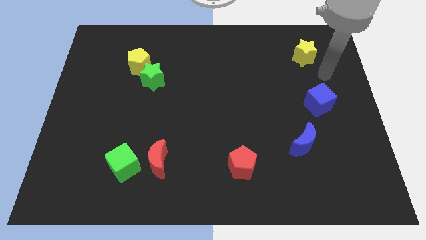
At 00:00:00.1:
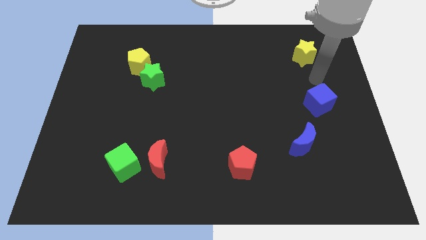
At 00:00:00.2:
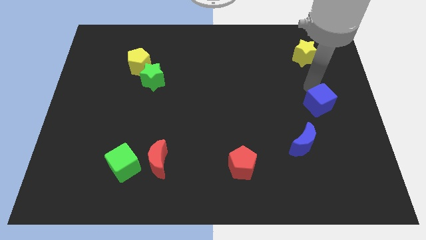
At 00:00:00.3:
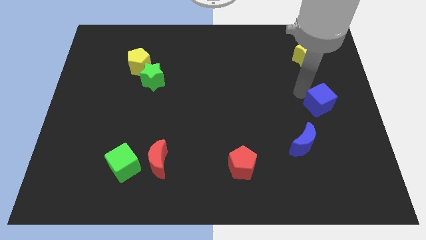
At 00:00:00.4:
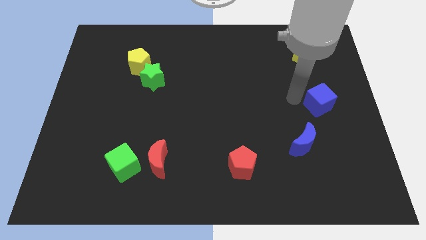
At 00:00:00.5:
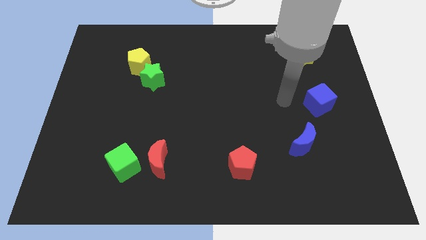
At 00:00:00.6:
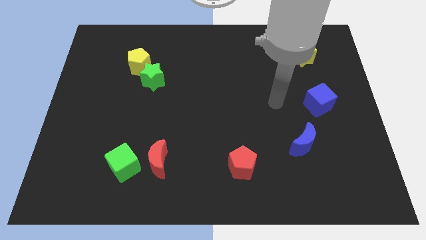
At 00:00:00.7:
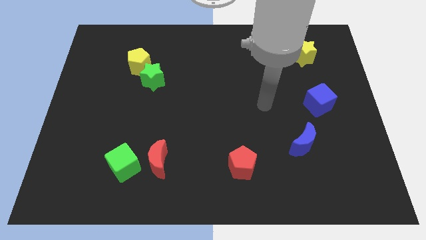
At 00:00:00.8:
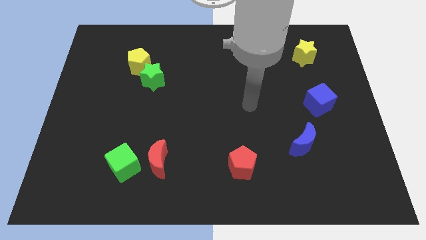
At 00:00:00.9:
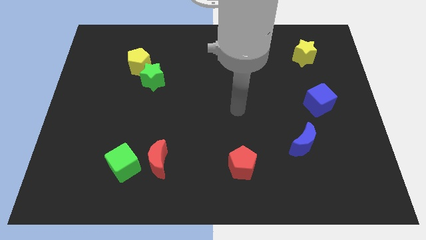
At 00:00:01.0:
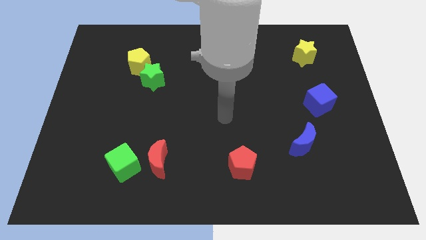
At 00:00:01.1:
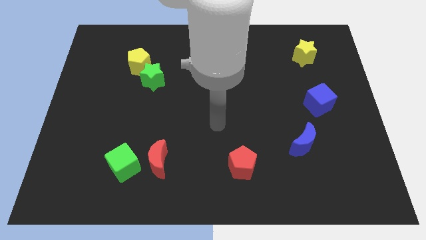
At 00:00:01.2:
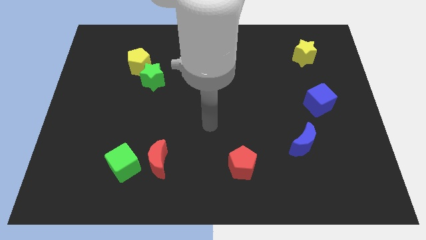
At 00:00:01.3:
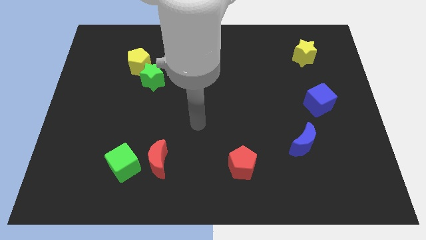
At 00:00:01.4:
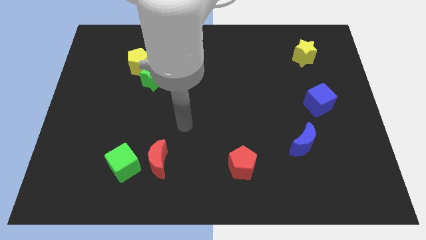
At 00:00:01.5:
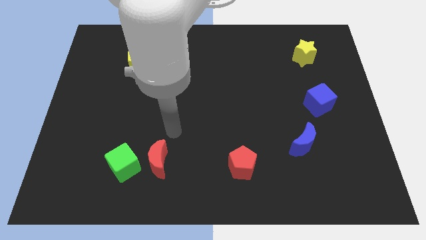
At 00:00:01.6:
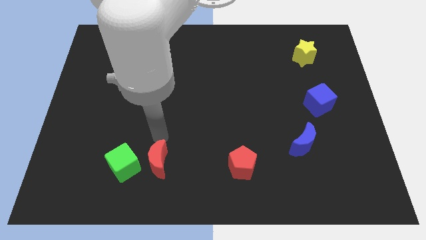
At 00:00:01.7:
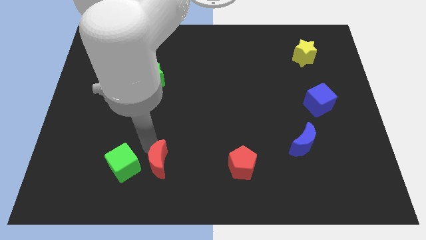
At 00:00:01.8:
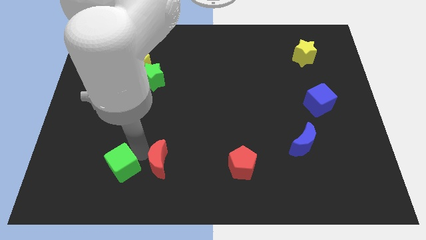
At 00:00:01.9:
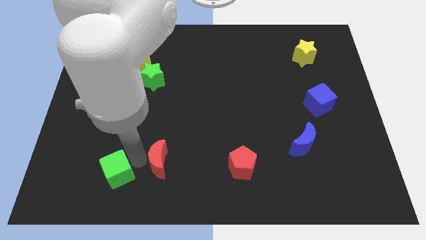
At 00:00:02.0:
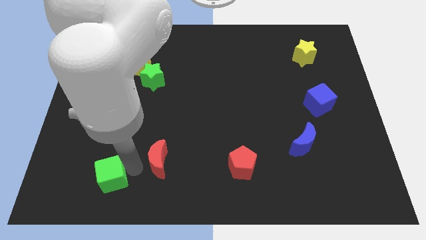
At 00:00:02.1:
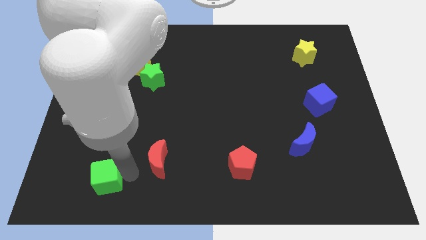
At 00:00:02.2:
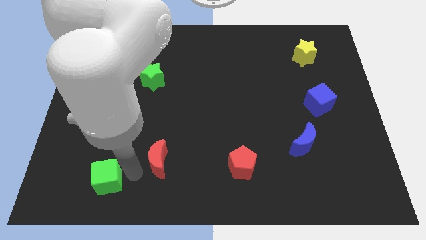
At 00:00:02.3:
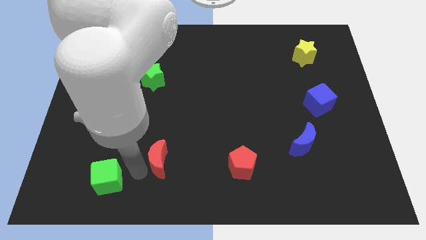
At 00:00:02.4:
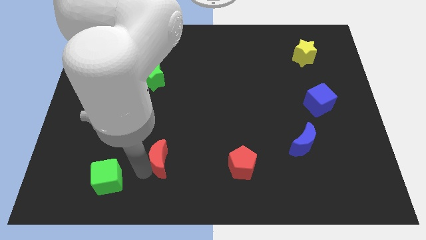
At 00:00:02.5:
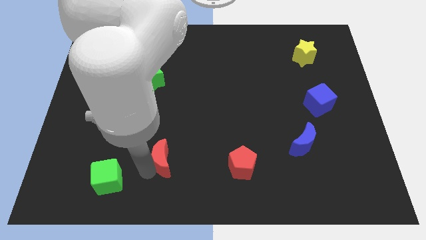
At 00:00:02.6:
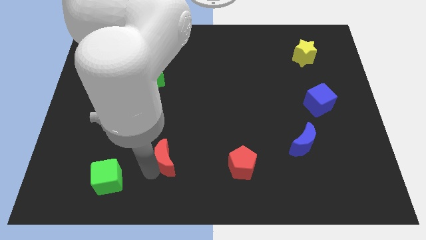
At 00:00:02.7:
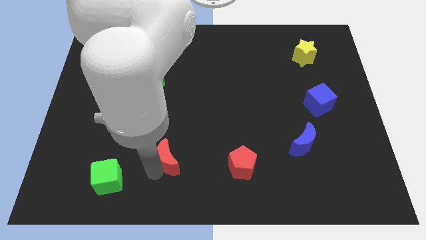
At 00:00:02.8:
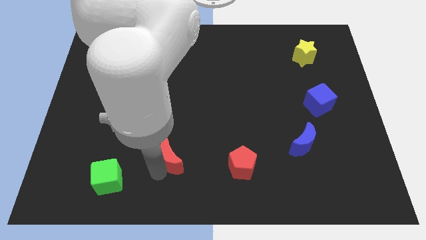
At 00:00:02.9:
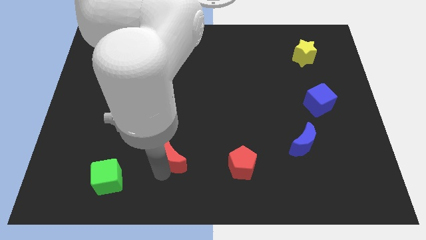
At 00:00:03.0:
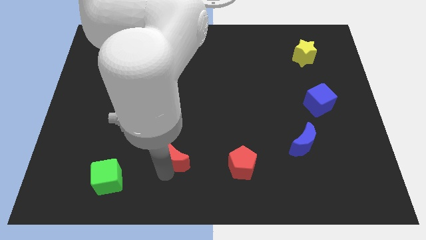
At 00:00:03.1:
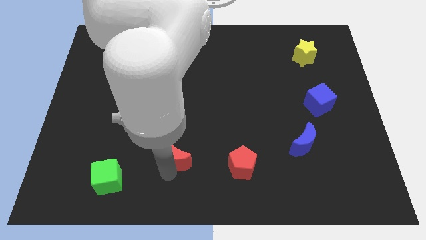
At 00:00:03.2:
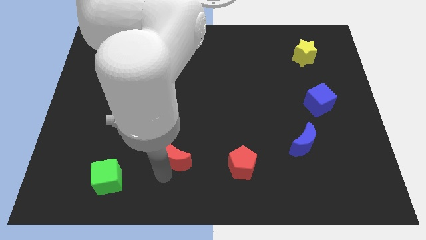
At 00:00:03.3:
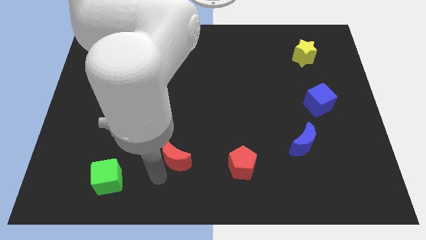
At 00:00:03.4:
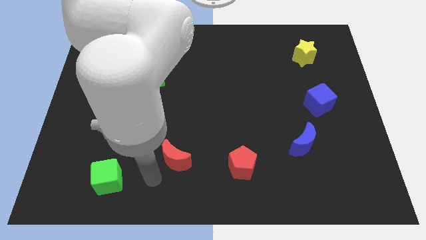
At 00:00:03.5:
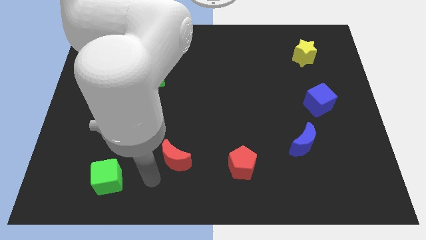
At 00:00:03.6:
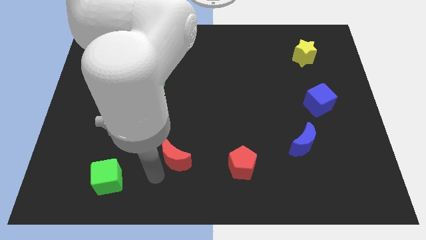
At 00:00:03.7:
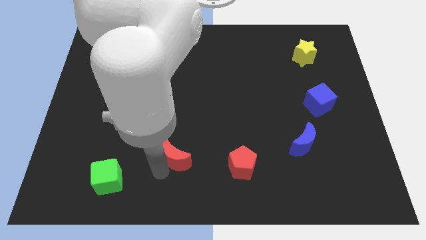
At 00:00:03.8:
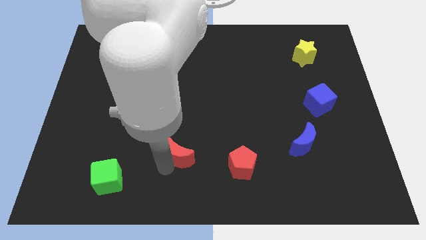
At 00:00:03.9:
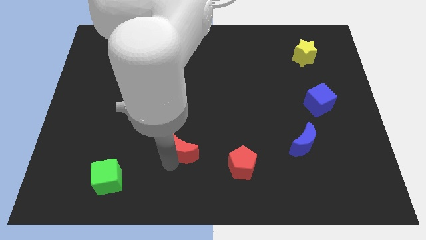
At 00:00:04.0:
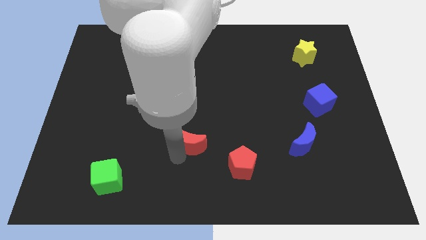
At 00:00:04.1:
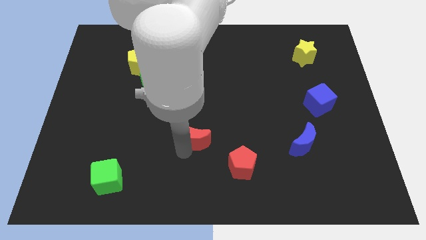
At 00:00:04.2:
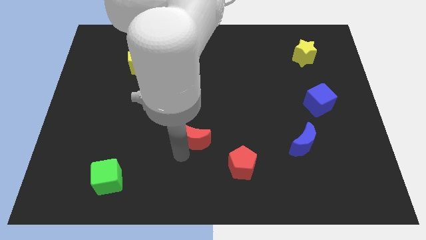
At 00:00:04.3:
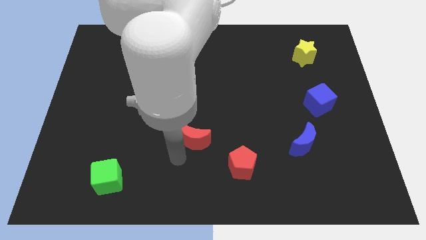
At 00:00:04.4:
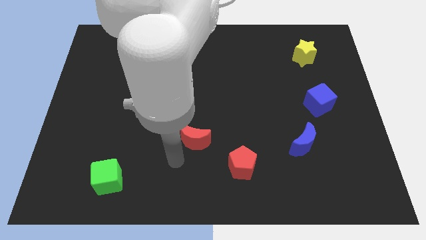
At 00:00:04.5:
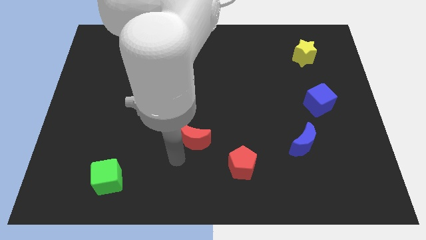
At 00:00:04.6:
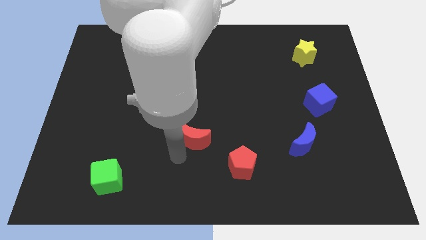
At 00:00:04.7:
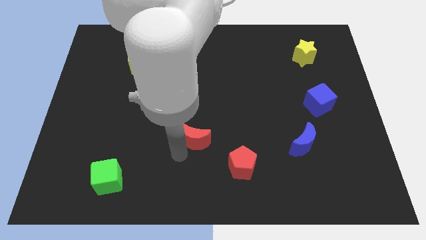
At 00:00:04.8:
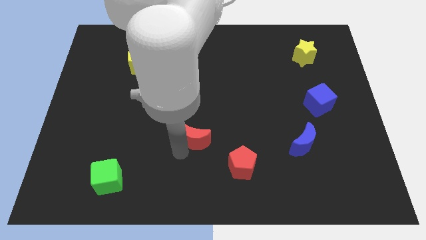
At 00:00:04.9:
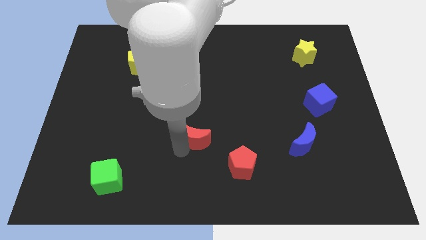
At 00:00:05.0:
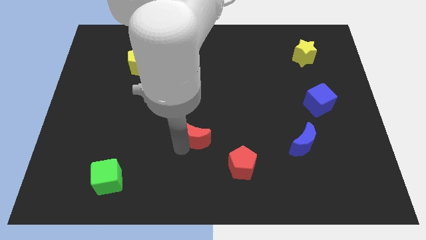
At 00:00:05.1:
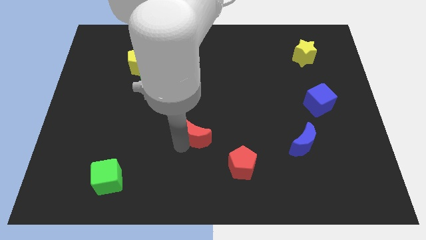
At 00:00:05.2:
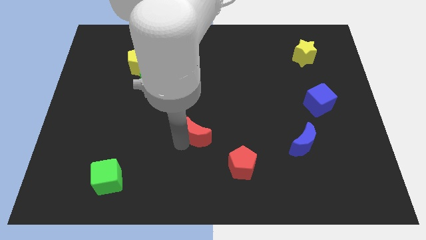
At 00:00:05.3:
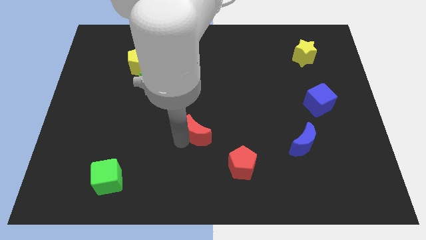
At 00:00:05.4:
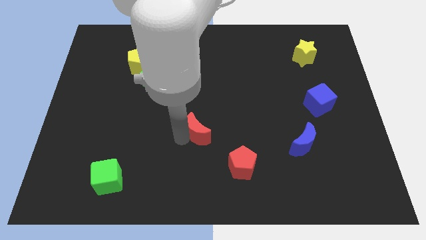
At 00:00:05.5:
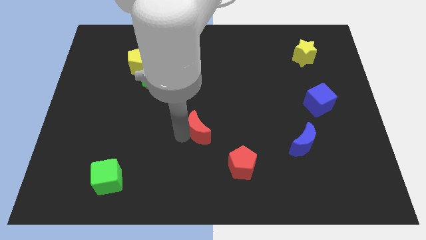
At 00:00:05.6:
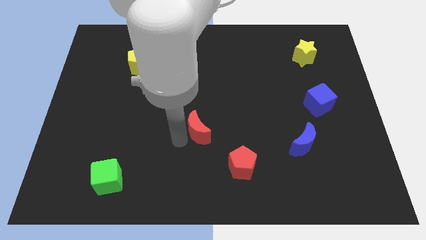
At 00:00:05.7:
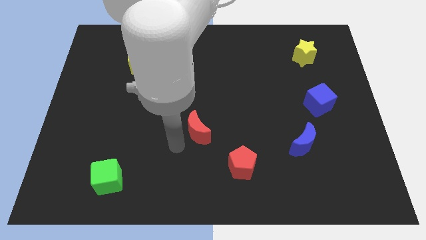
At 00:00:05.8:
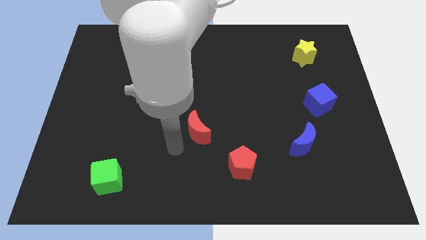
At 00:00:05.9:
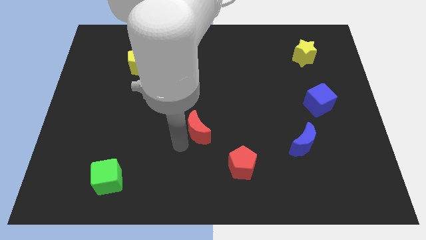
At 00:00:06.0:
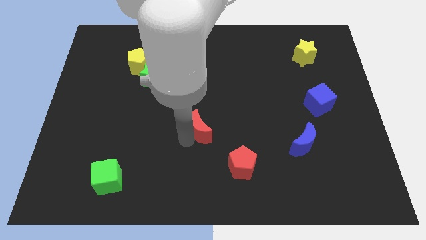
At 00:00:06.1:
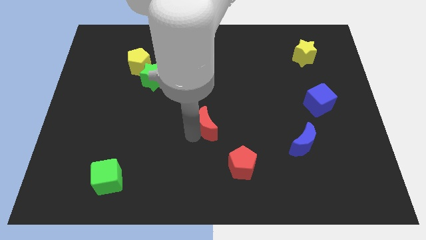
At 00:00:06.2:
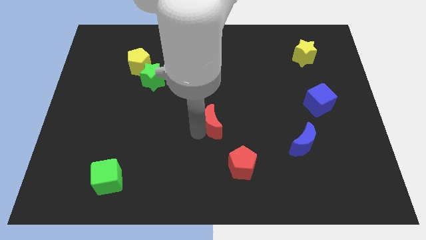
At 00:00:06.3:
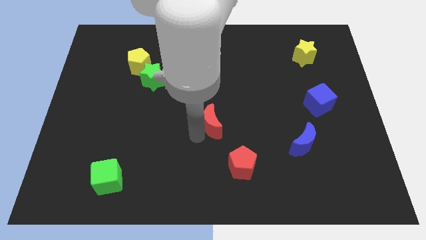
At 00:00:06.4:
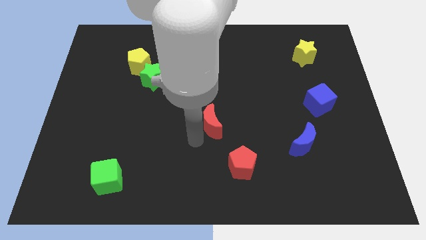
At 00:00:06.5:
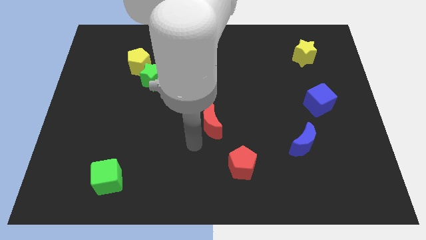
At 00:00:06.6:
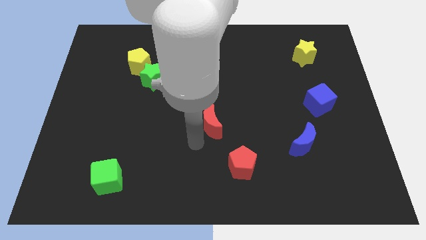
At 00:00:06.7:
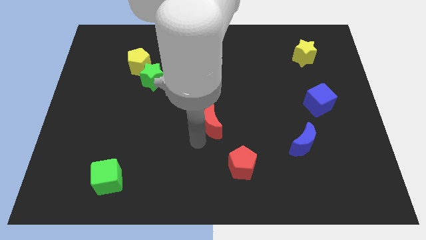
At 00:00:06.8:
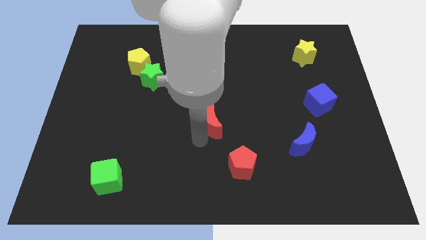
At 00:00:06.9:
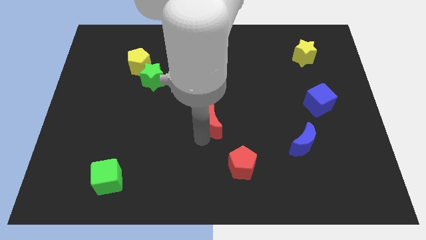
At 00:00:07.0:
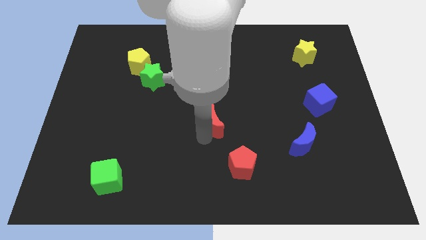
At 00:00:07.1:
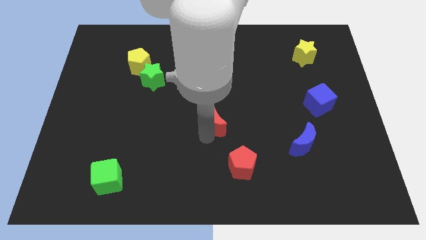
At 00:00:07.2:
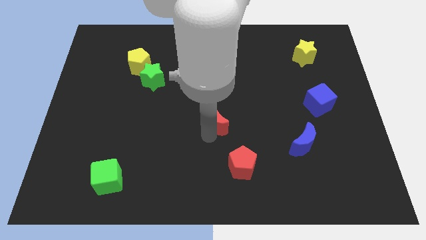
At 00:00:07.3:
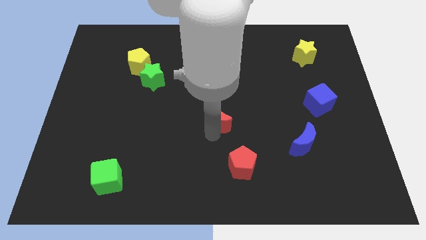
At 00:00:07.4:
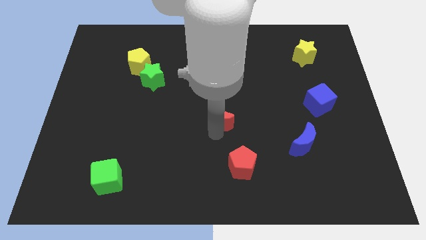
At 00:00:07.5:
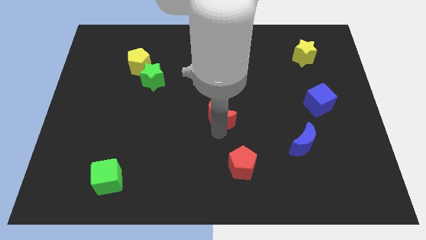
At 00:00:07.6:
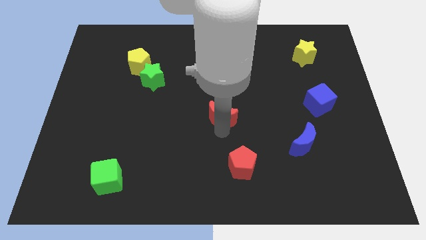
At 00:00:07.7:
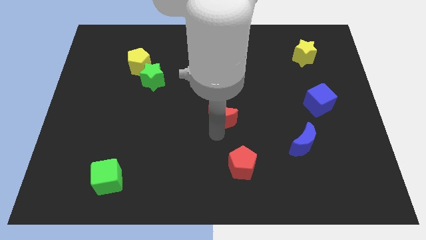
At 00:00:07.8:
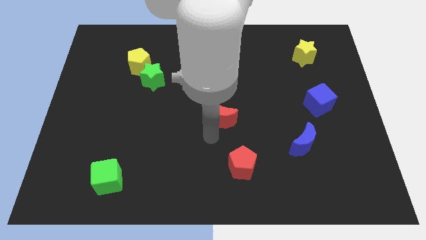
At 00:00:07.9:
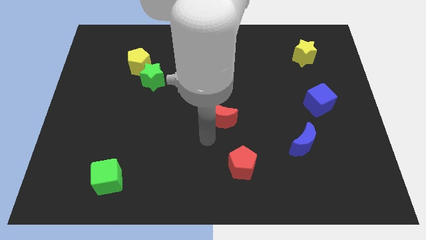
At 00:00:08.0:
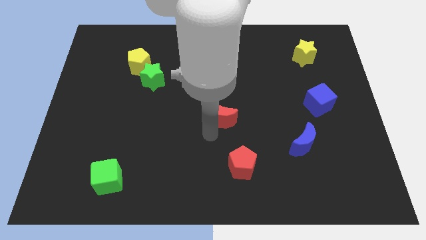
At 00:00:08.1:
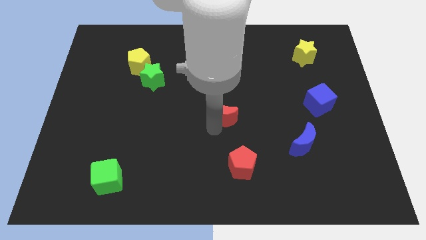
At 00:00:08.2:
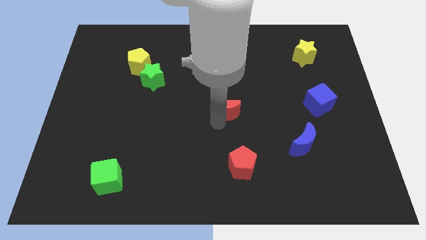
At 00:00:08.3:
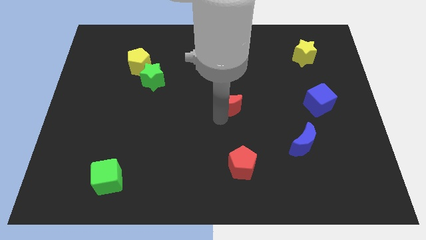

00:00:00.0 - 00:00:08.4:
slide the red moon diagonally up and right
